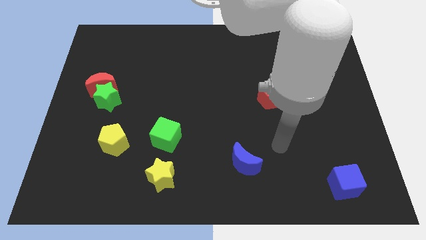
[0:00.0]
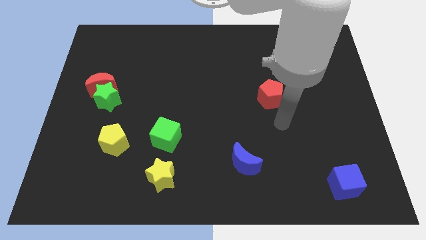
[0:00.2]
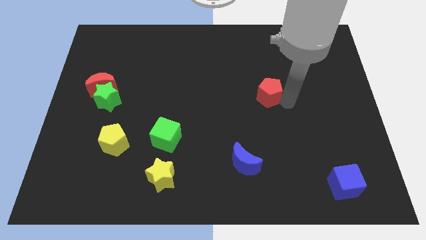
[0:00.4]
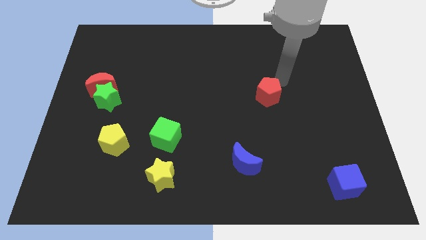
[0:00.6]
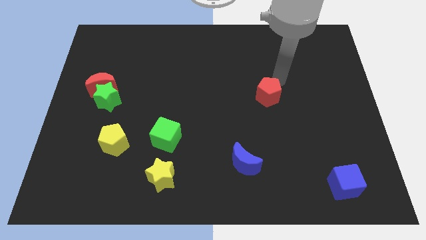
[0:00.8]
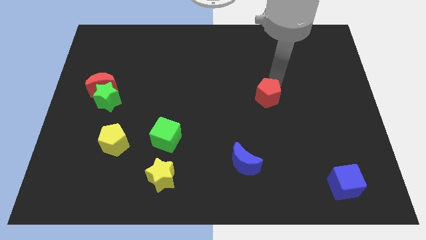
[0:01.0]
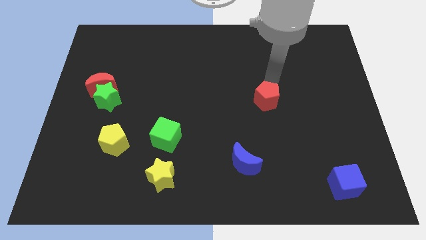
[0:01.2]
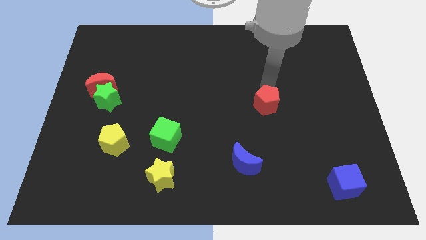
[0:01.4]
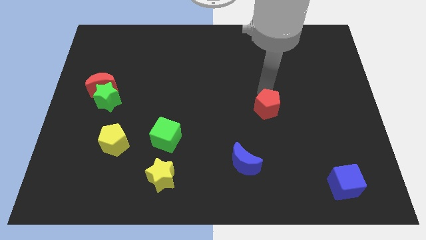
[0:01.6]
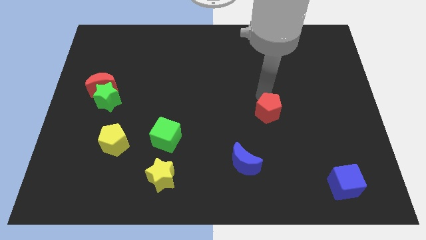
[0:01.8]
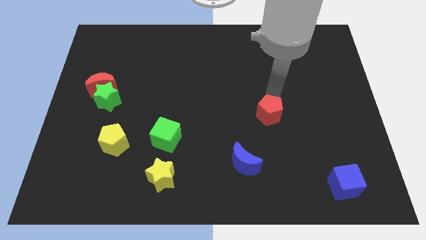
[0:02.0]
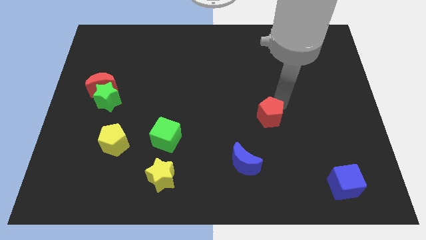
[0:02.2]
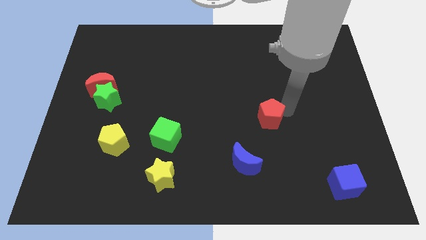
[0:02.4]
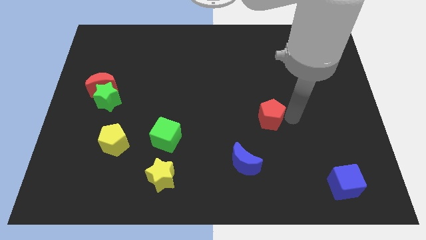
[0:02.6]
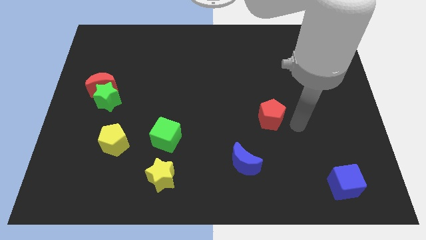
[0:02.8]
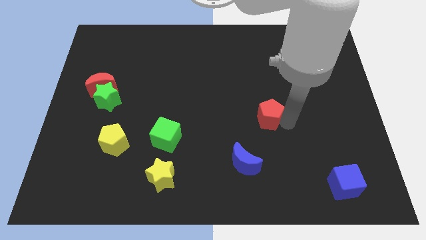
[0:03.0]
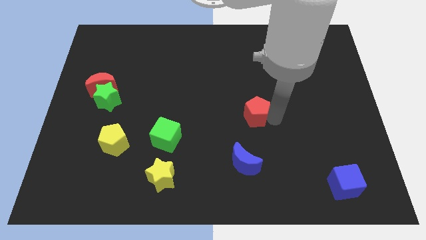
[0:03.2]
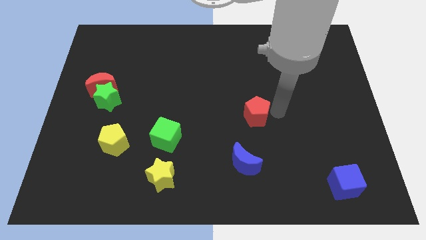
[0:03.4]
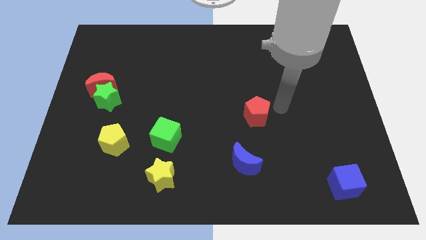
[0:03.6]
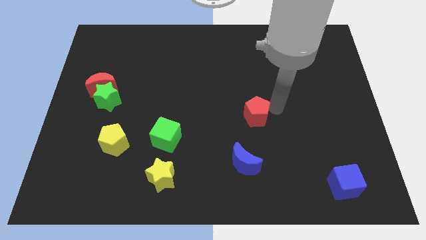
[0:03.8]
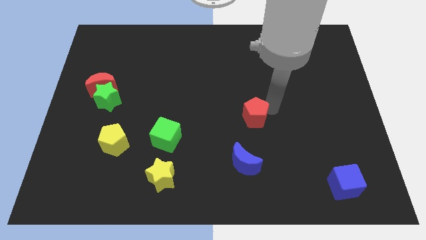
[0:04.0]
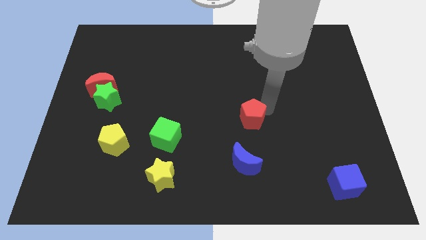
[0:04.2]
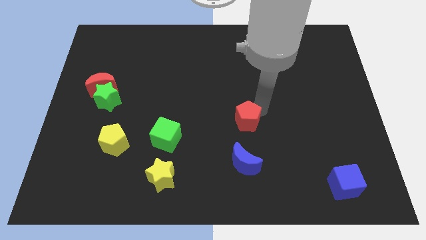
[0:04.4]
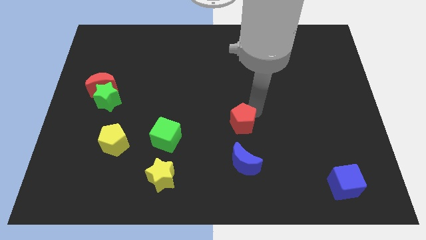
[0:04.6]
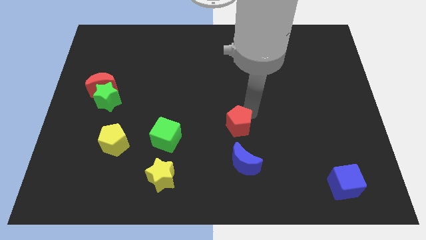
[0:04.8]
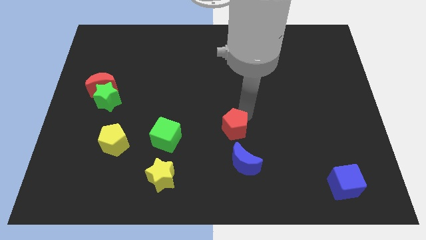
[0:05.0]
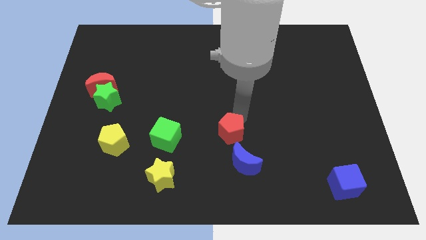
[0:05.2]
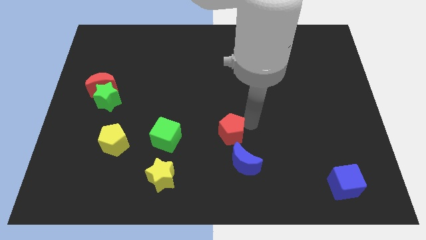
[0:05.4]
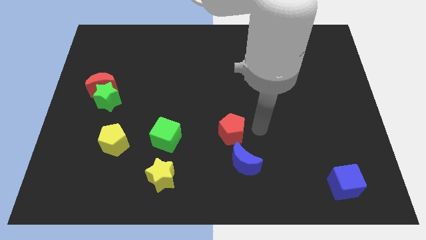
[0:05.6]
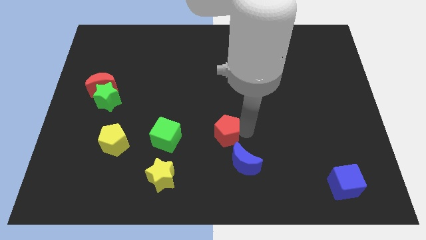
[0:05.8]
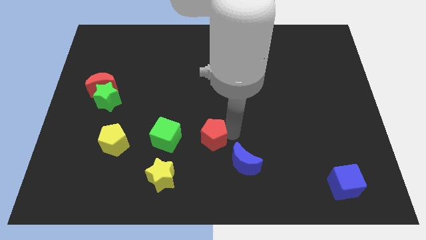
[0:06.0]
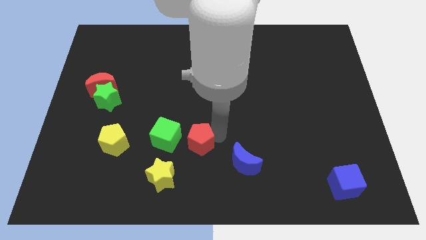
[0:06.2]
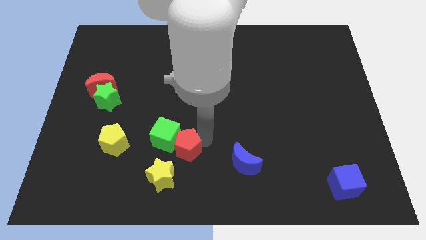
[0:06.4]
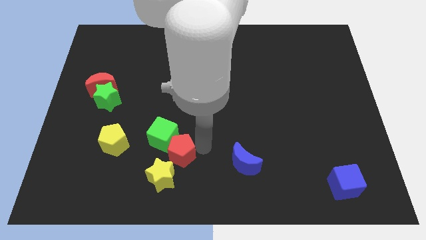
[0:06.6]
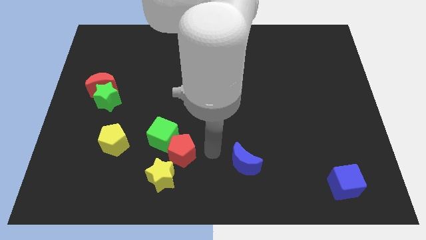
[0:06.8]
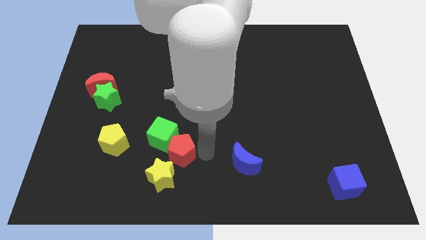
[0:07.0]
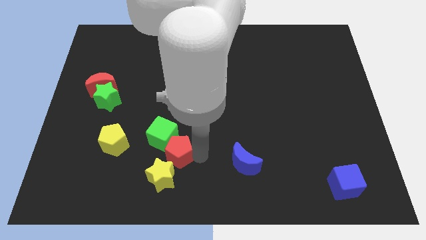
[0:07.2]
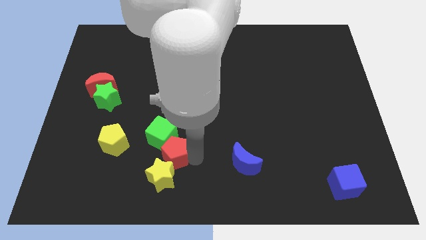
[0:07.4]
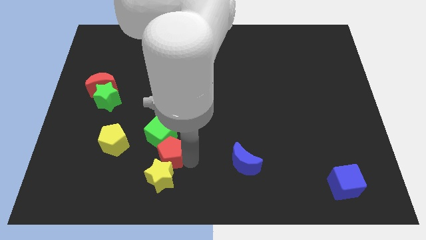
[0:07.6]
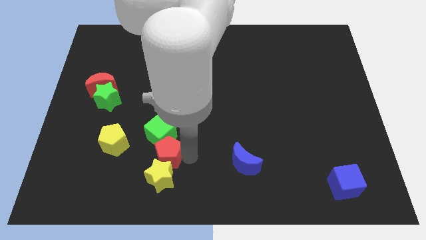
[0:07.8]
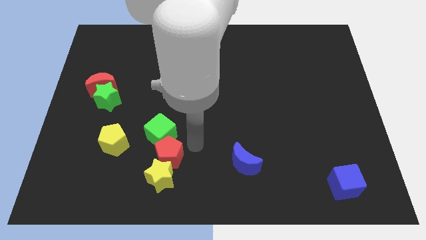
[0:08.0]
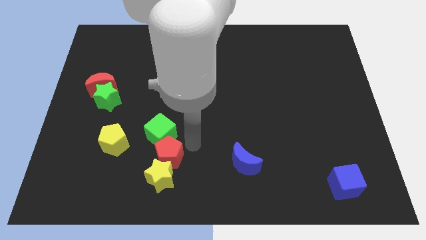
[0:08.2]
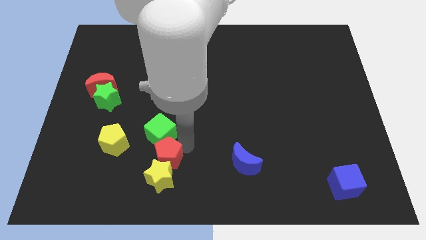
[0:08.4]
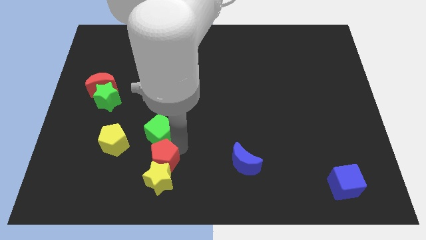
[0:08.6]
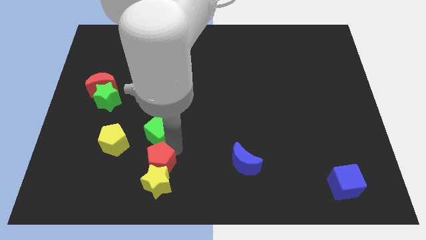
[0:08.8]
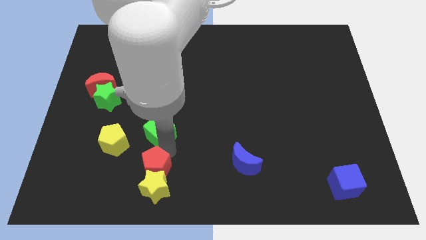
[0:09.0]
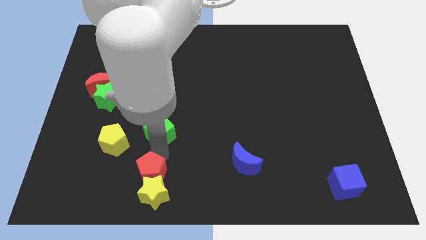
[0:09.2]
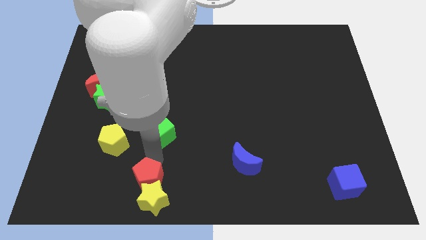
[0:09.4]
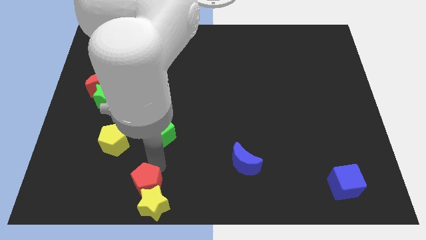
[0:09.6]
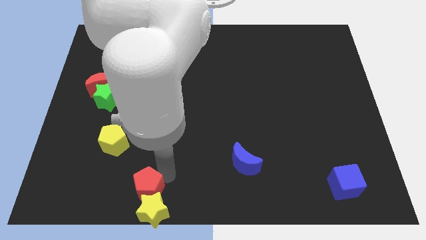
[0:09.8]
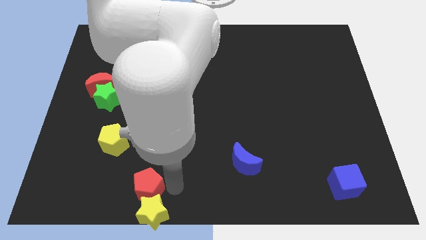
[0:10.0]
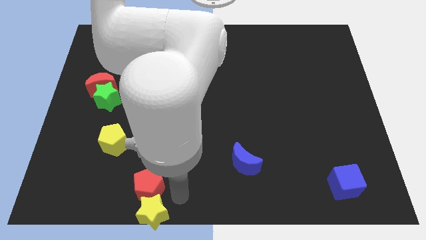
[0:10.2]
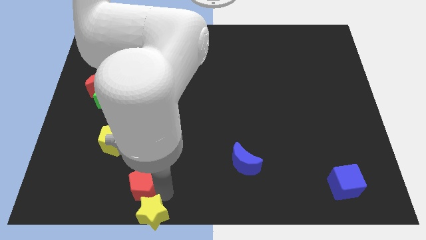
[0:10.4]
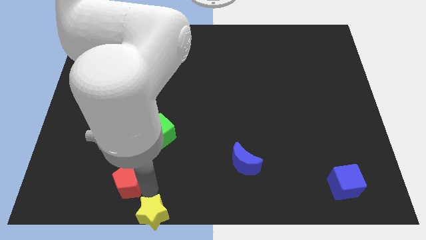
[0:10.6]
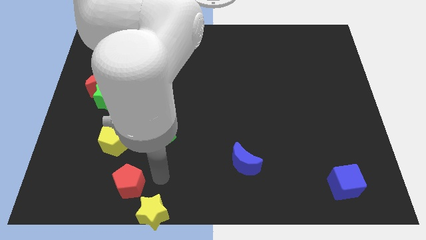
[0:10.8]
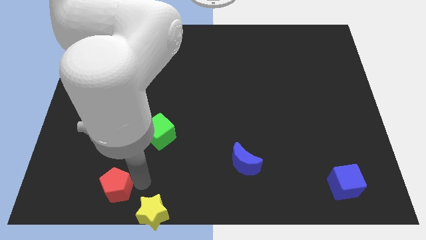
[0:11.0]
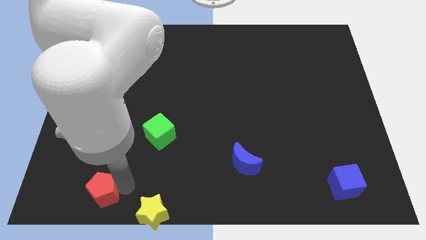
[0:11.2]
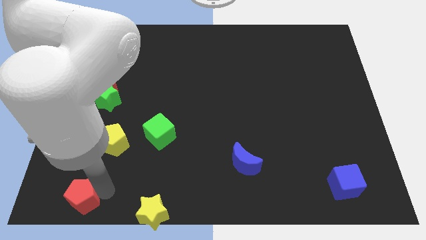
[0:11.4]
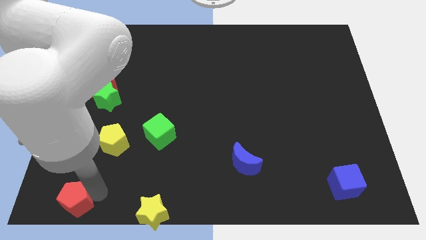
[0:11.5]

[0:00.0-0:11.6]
move the red pentagon to the bottom left of the board
